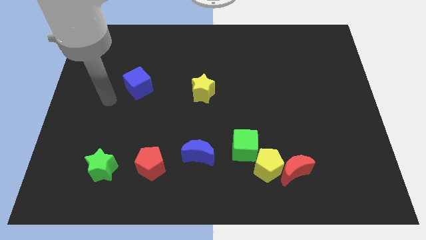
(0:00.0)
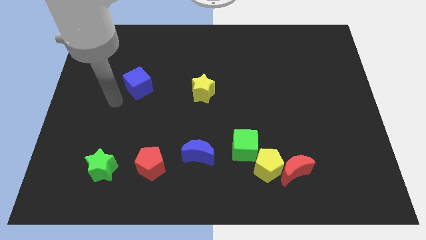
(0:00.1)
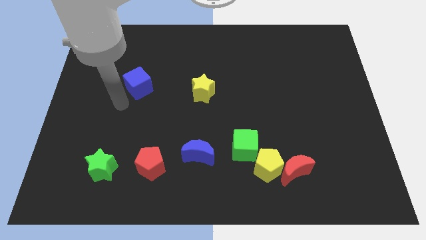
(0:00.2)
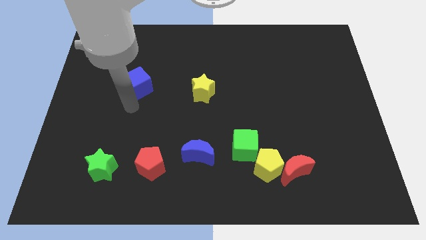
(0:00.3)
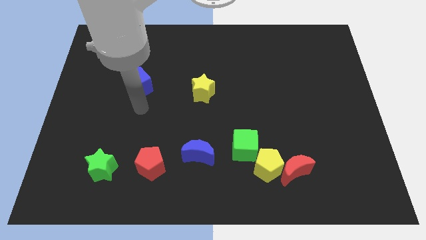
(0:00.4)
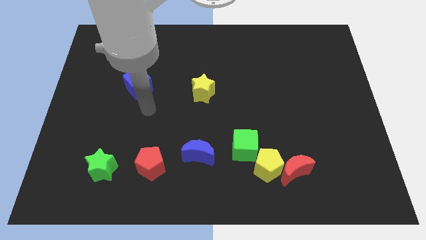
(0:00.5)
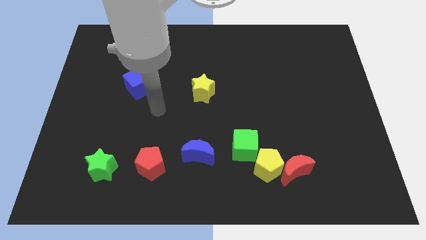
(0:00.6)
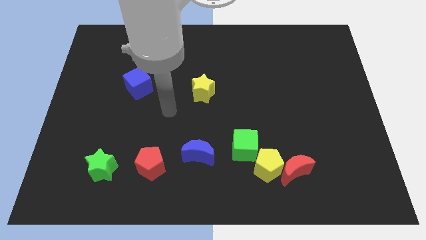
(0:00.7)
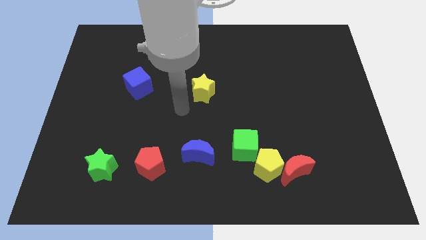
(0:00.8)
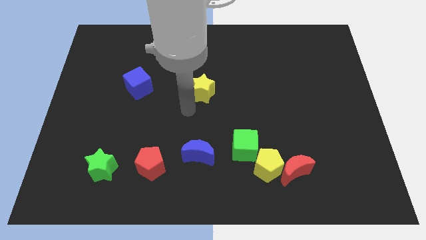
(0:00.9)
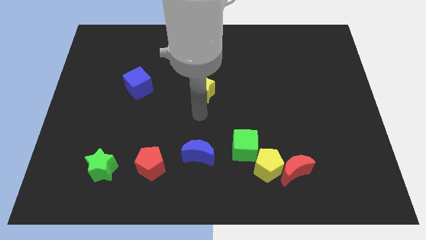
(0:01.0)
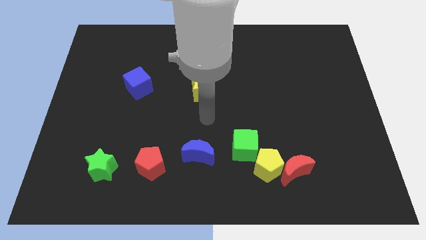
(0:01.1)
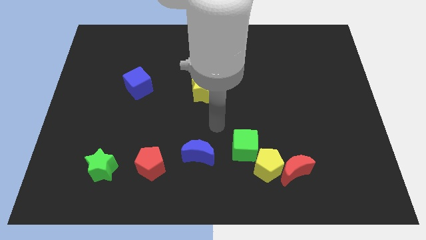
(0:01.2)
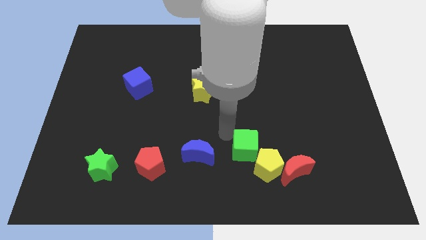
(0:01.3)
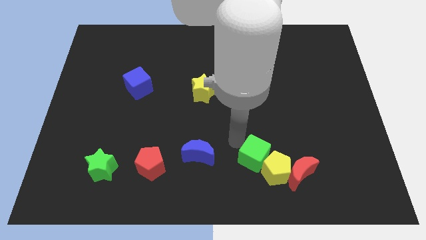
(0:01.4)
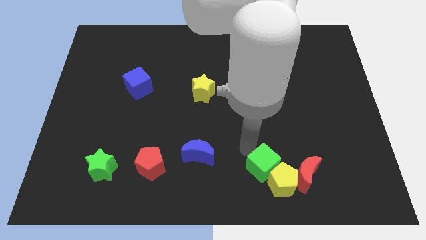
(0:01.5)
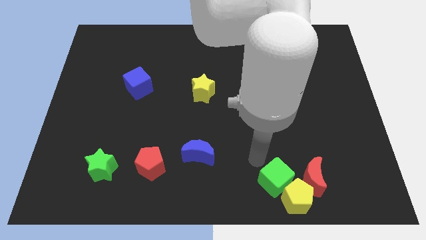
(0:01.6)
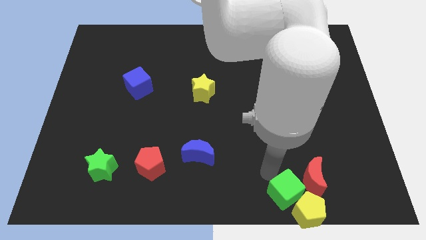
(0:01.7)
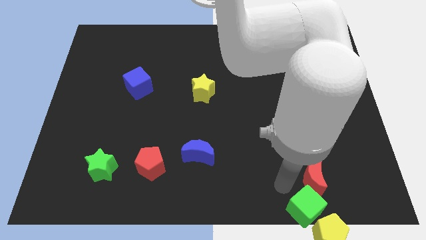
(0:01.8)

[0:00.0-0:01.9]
pull the red moon apart from the yellow pentagon

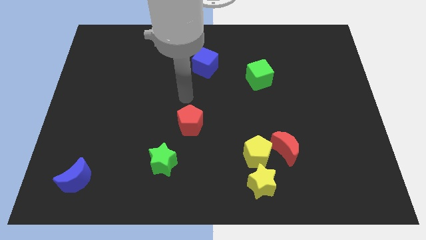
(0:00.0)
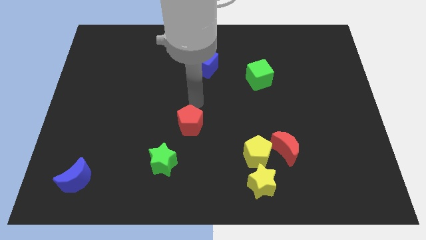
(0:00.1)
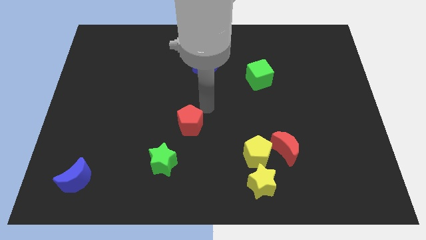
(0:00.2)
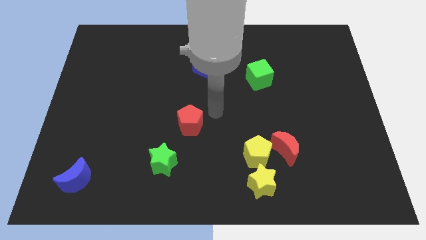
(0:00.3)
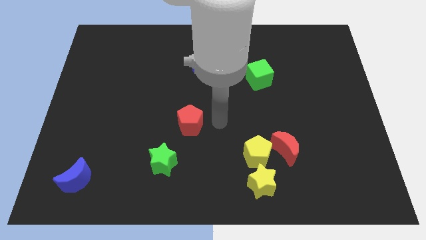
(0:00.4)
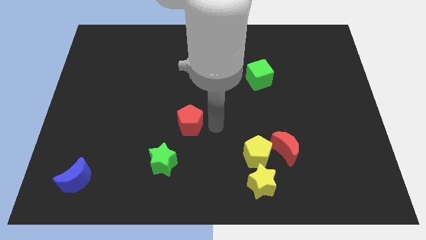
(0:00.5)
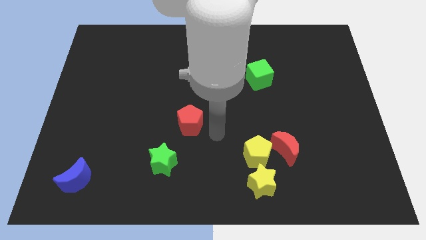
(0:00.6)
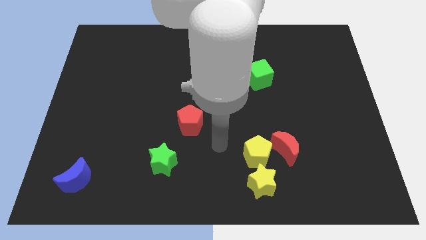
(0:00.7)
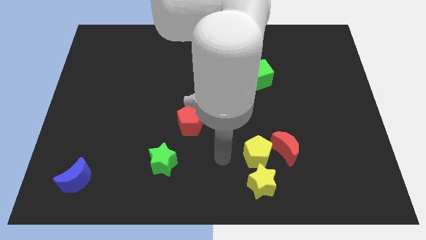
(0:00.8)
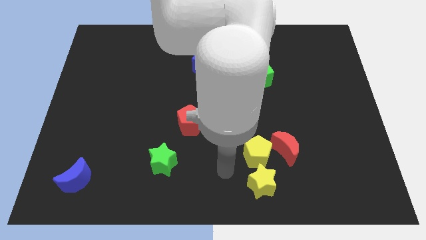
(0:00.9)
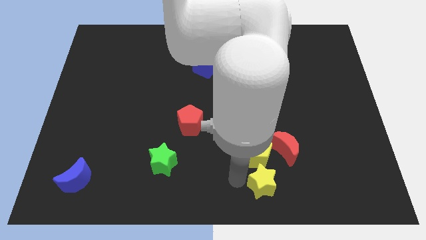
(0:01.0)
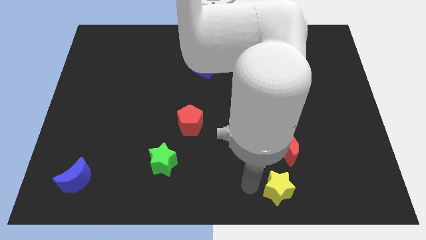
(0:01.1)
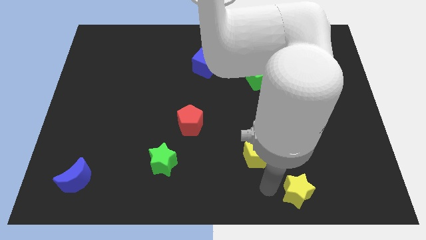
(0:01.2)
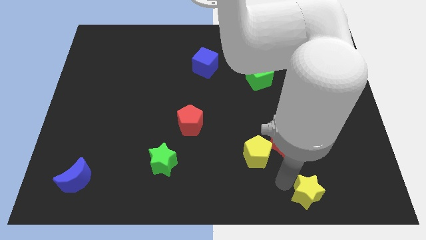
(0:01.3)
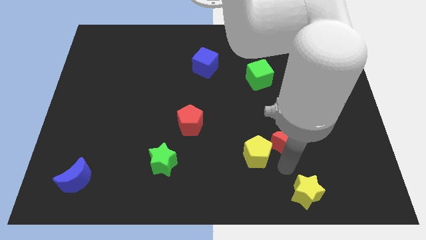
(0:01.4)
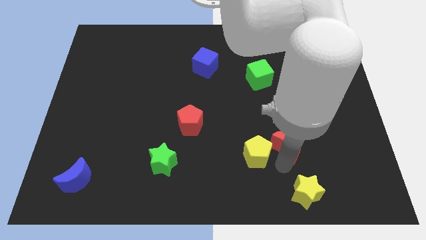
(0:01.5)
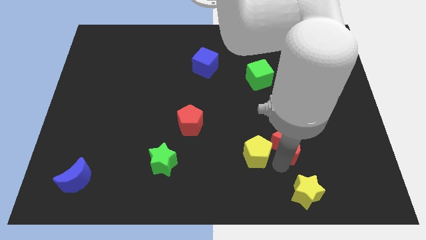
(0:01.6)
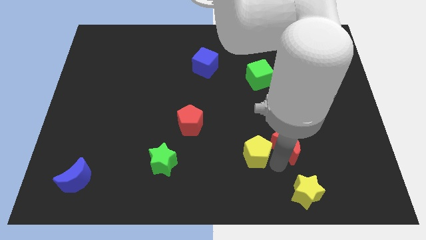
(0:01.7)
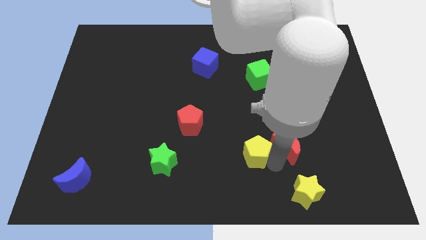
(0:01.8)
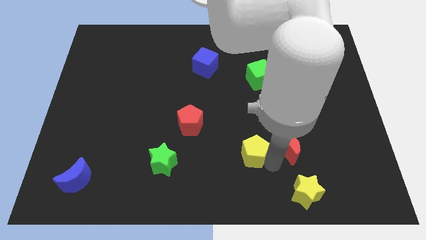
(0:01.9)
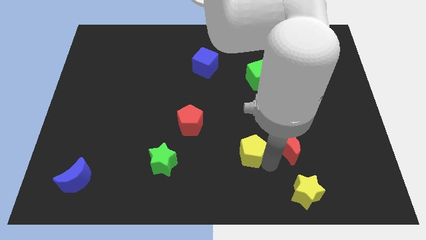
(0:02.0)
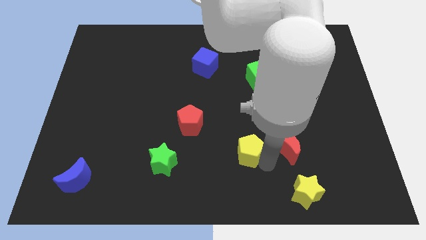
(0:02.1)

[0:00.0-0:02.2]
move the yellow pentagon away from the red moon and yellow star

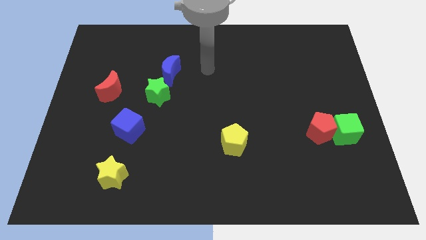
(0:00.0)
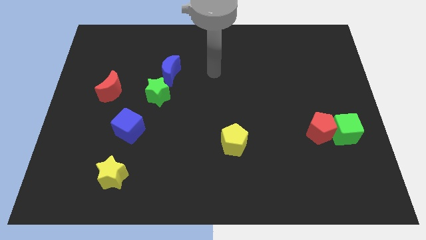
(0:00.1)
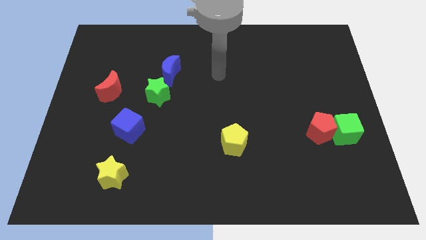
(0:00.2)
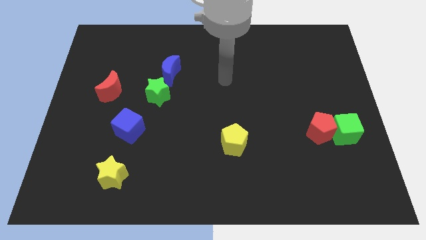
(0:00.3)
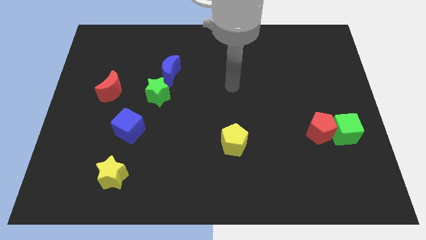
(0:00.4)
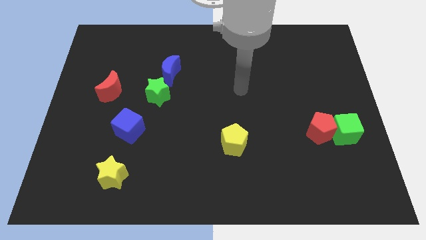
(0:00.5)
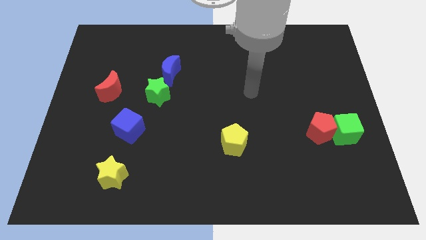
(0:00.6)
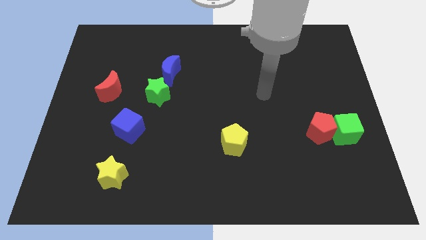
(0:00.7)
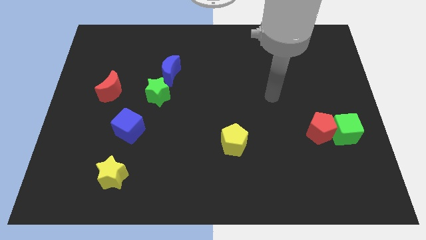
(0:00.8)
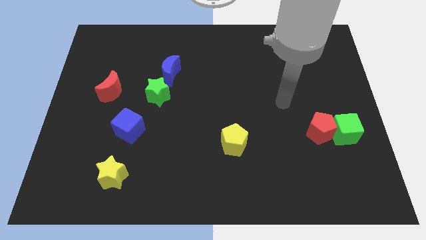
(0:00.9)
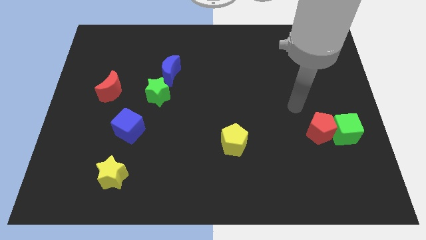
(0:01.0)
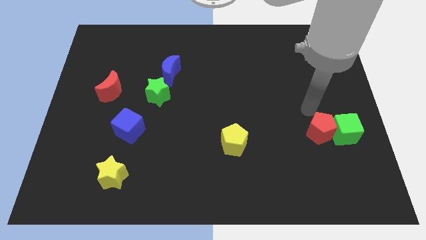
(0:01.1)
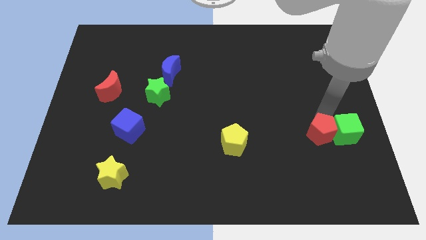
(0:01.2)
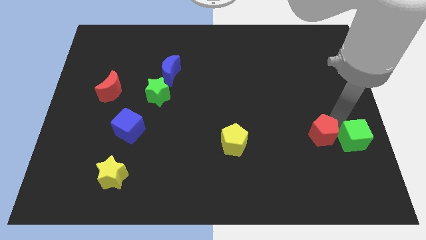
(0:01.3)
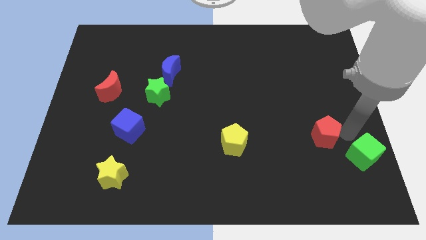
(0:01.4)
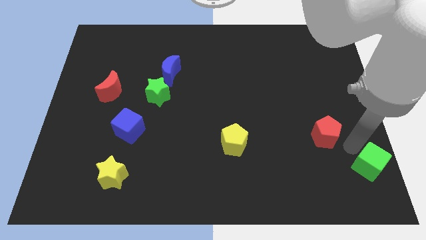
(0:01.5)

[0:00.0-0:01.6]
move the red pentagon away from the green cube

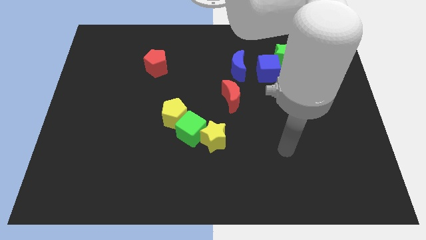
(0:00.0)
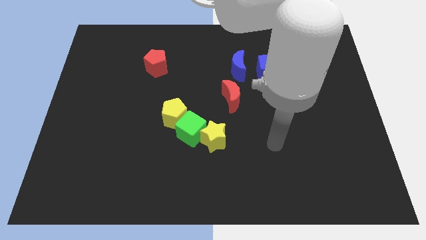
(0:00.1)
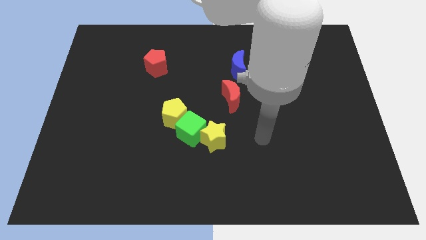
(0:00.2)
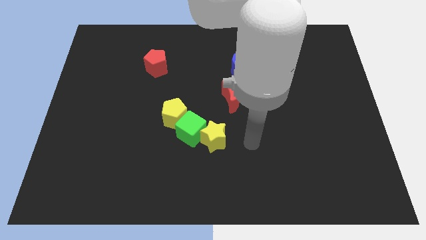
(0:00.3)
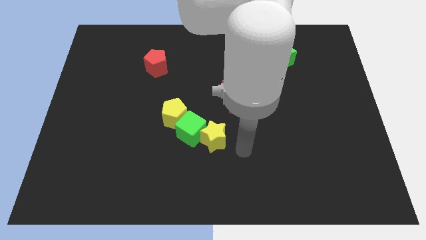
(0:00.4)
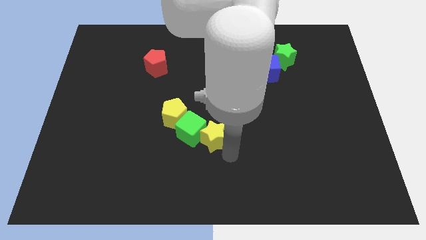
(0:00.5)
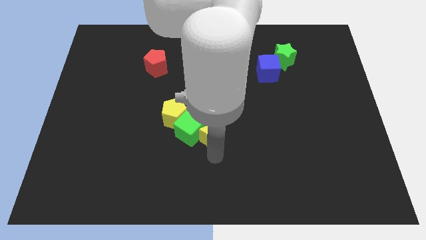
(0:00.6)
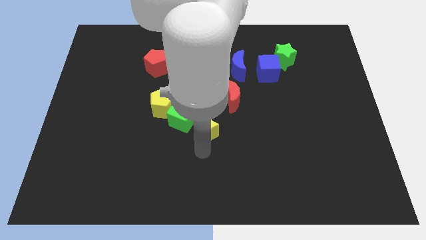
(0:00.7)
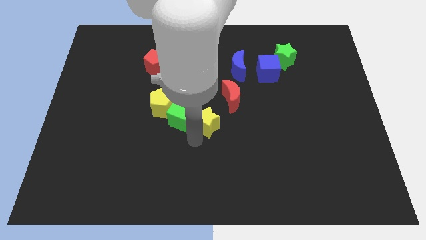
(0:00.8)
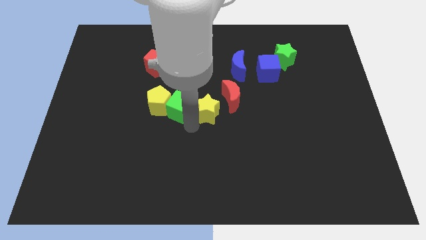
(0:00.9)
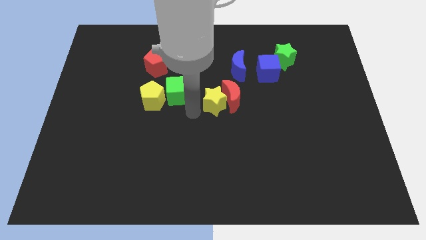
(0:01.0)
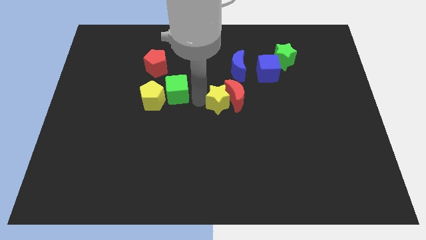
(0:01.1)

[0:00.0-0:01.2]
separate the yellow star from the green cube

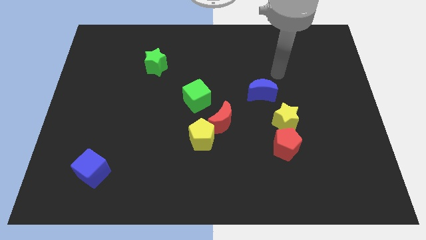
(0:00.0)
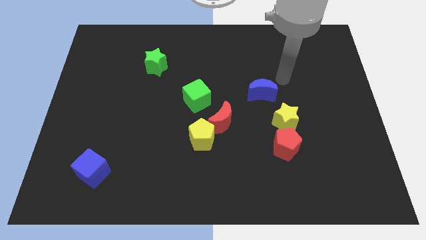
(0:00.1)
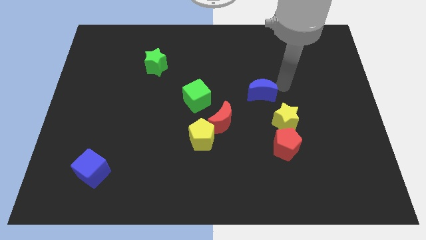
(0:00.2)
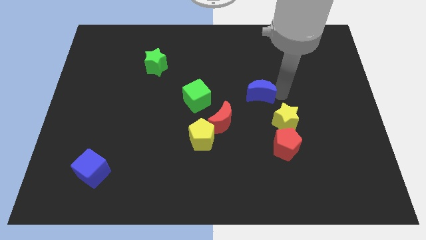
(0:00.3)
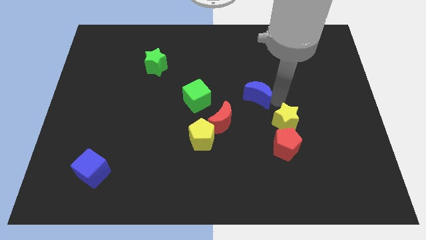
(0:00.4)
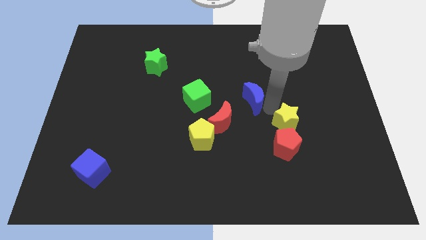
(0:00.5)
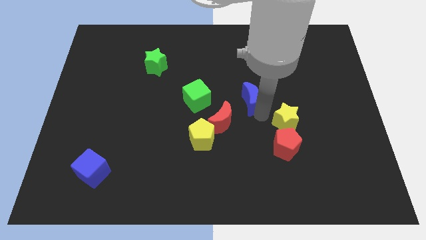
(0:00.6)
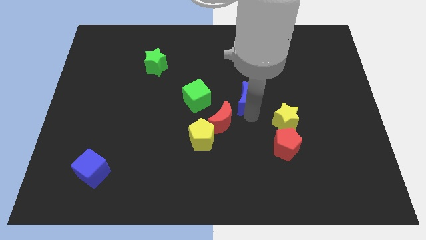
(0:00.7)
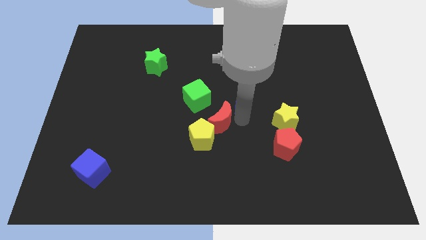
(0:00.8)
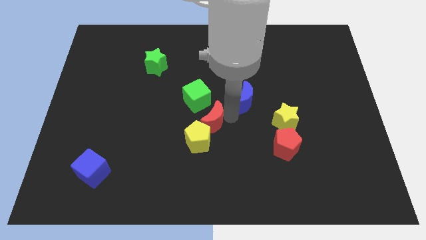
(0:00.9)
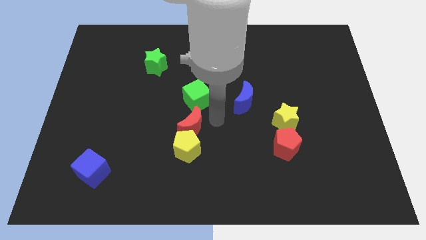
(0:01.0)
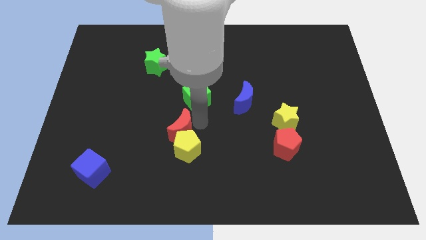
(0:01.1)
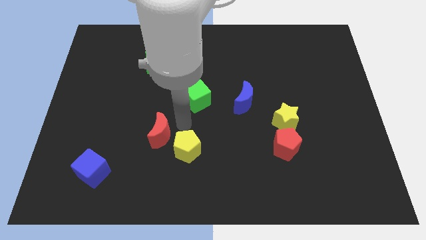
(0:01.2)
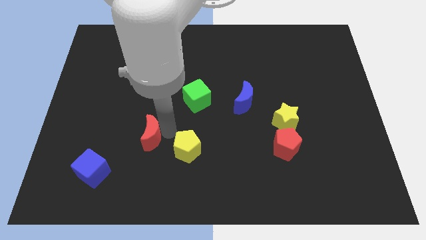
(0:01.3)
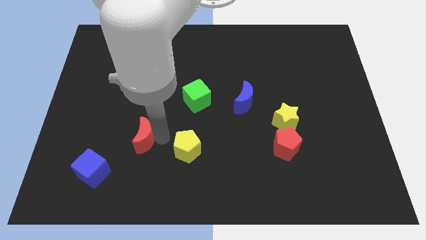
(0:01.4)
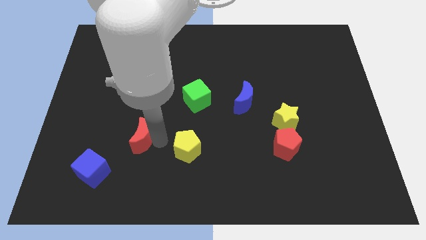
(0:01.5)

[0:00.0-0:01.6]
move the yellow pentagon away from the red moon

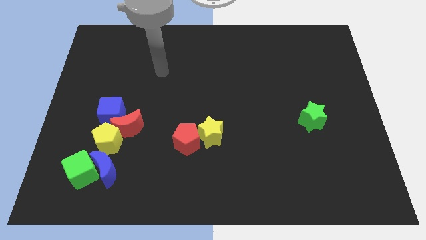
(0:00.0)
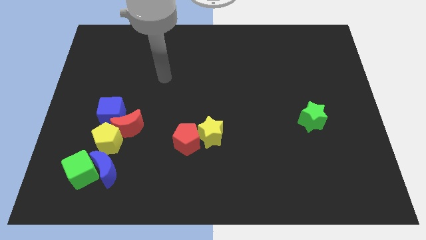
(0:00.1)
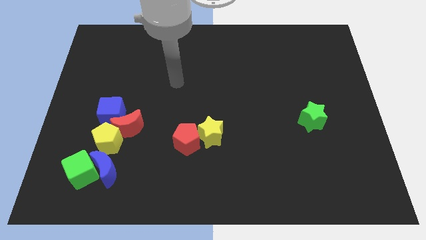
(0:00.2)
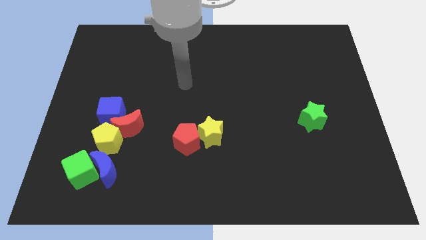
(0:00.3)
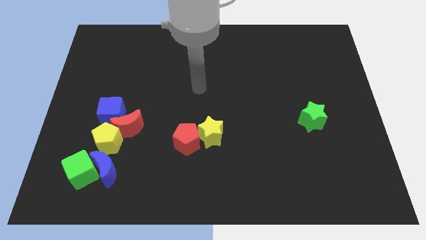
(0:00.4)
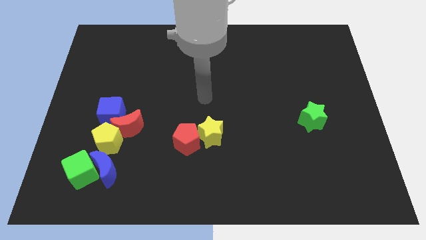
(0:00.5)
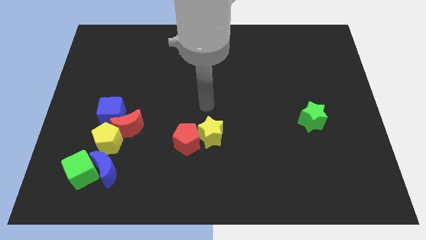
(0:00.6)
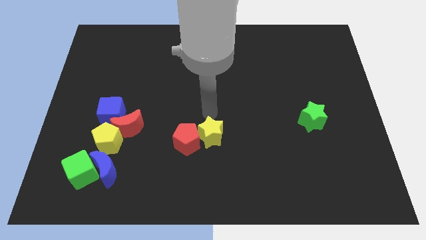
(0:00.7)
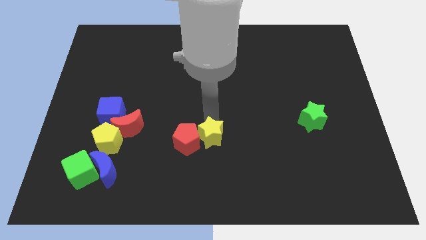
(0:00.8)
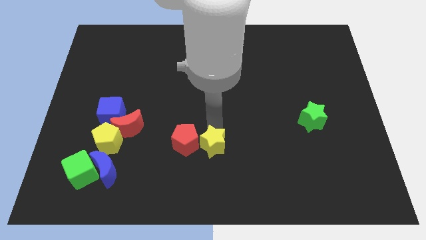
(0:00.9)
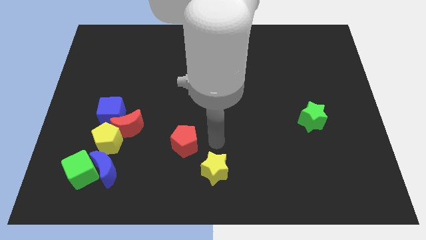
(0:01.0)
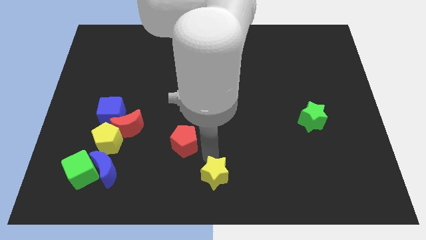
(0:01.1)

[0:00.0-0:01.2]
move the red pentagon away from the yellow star
